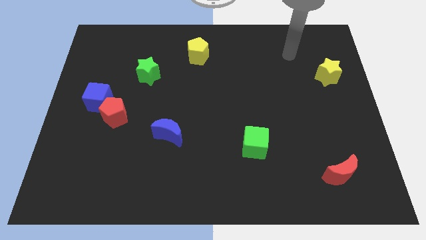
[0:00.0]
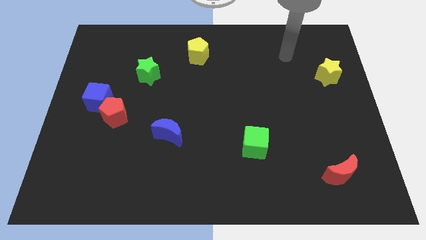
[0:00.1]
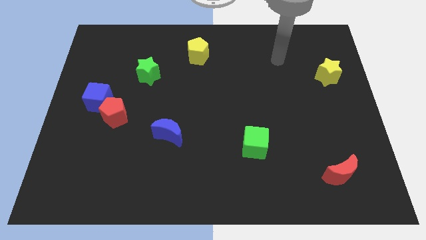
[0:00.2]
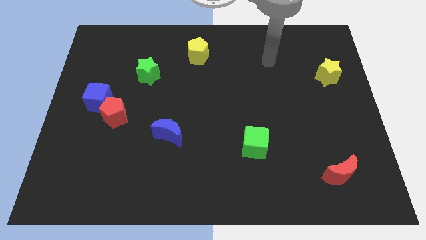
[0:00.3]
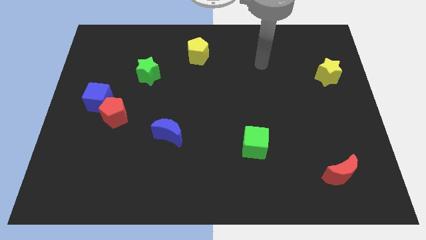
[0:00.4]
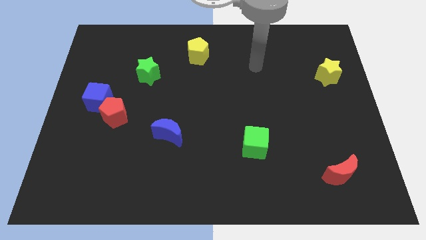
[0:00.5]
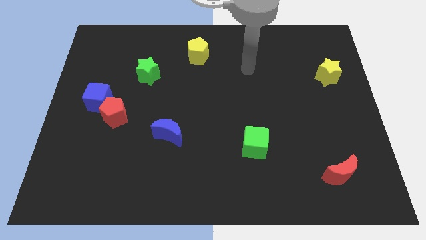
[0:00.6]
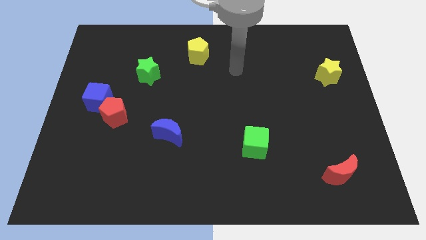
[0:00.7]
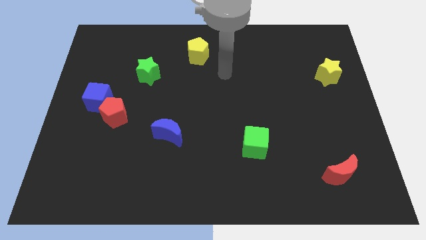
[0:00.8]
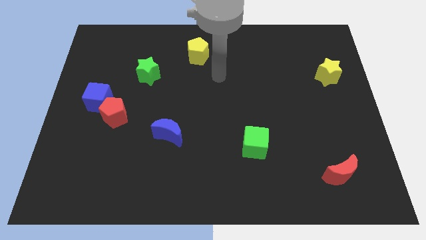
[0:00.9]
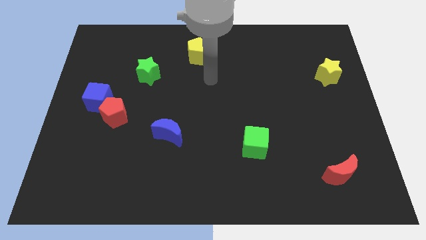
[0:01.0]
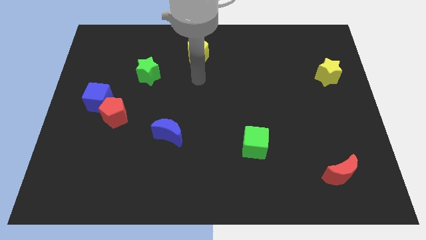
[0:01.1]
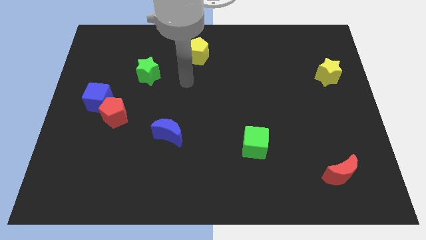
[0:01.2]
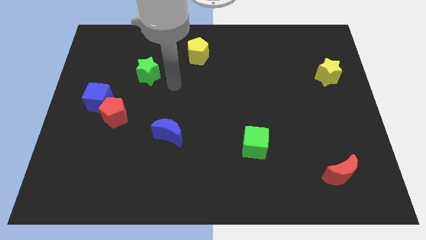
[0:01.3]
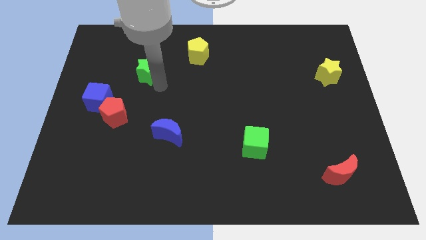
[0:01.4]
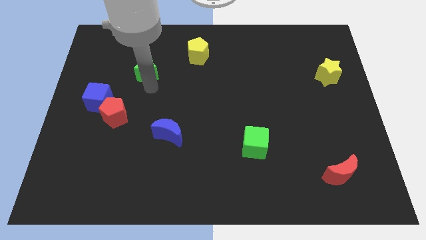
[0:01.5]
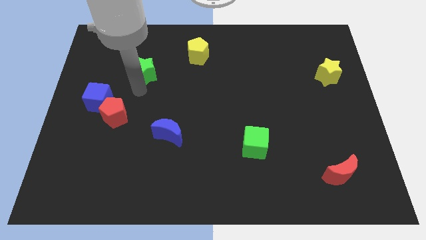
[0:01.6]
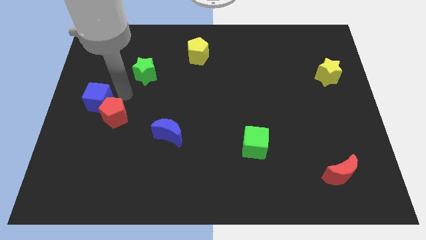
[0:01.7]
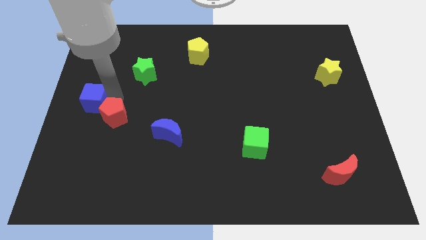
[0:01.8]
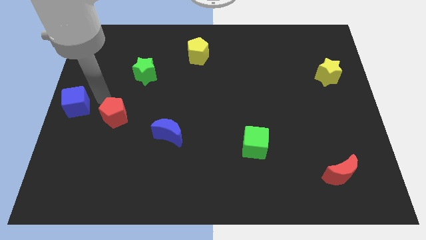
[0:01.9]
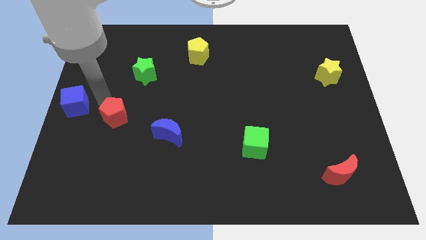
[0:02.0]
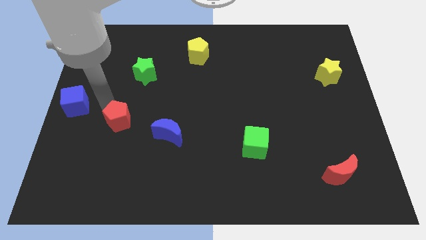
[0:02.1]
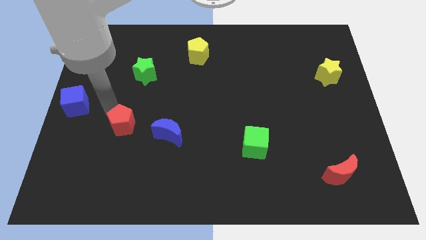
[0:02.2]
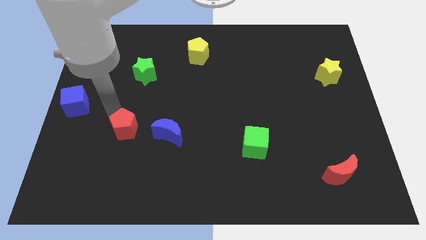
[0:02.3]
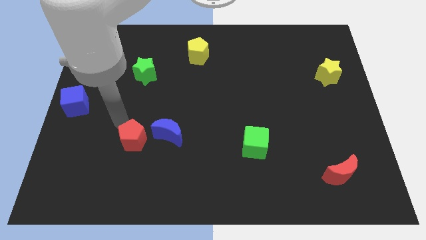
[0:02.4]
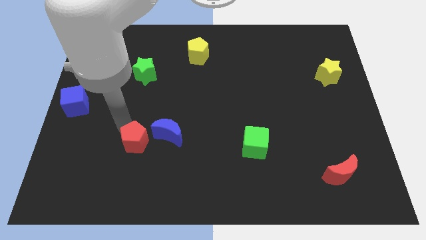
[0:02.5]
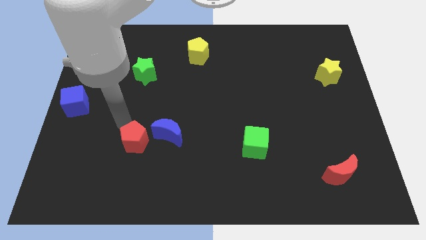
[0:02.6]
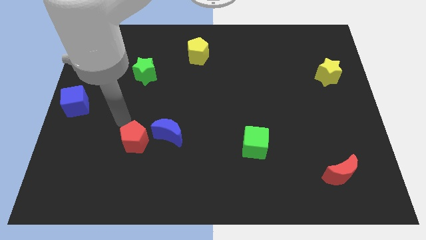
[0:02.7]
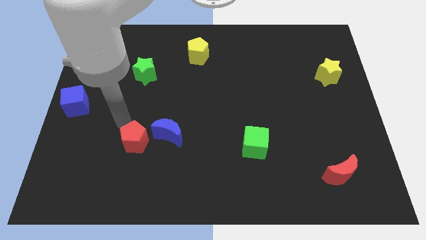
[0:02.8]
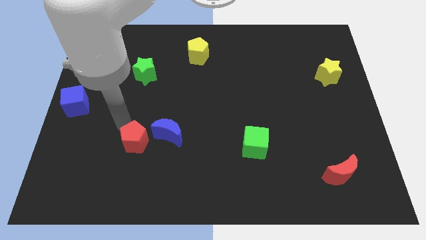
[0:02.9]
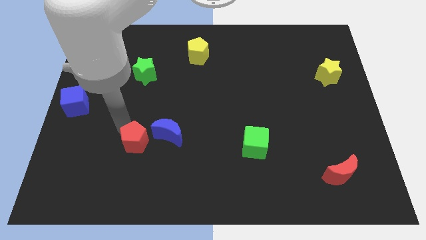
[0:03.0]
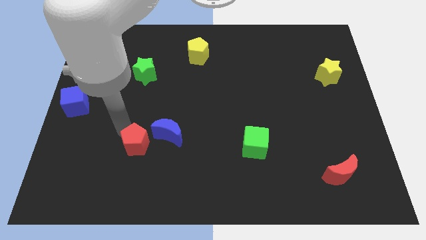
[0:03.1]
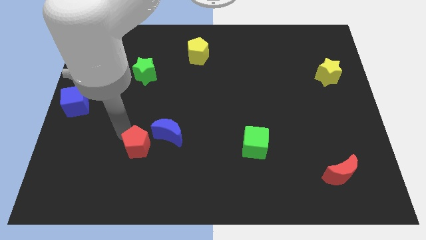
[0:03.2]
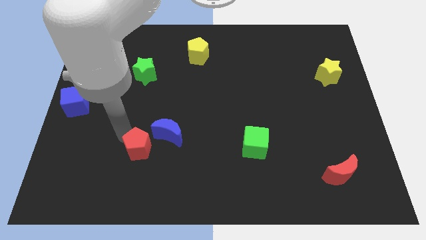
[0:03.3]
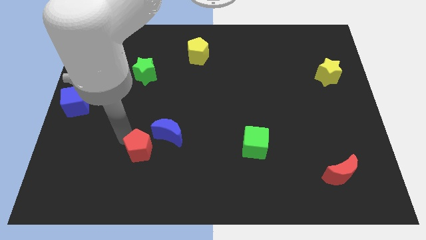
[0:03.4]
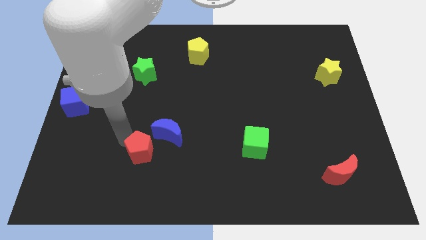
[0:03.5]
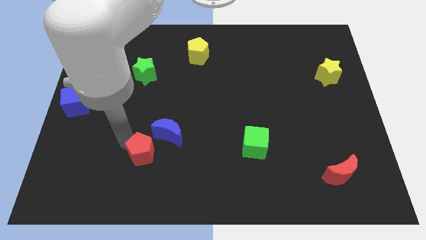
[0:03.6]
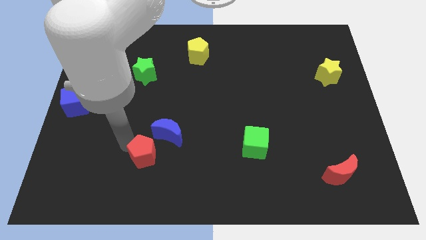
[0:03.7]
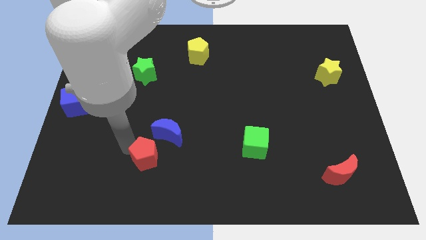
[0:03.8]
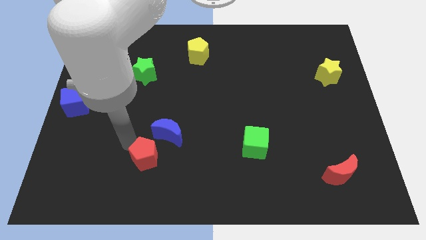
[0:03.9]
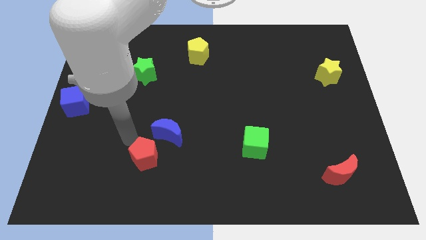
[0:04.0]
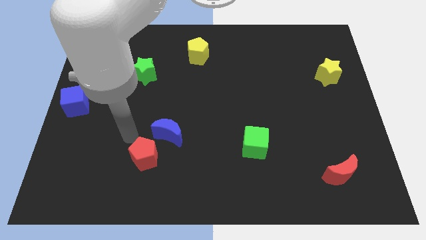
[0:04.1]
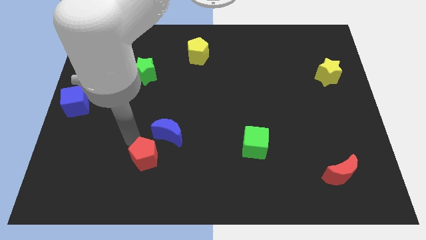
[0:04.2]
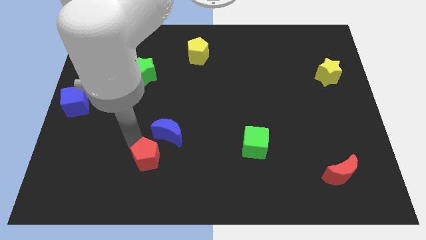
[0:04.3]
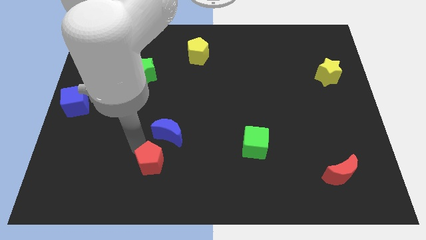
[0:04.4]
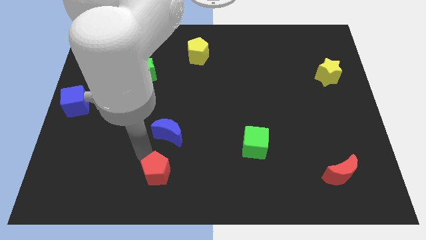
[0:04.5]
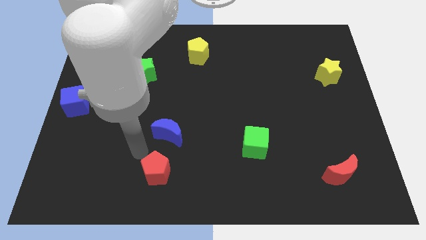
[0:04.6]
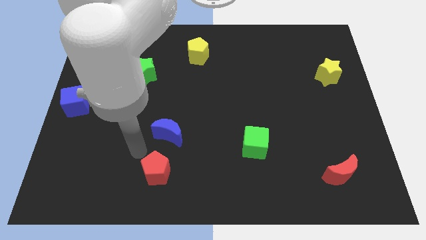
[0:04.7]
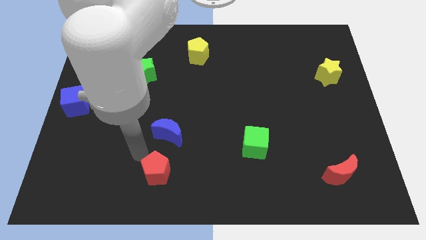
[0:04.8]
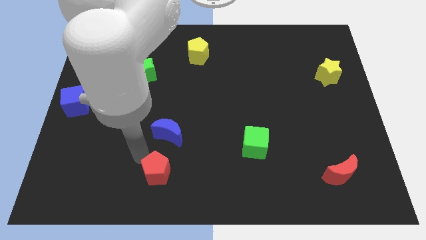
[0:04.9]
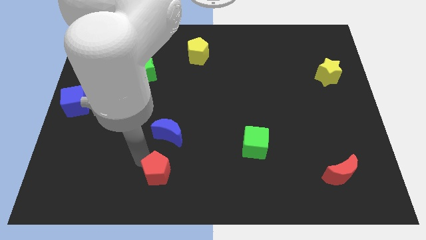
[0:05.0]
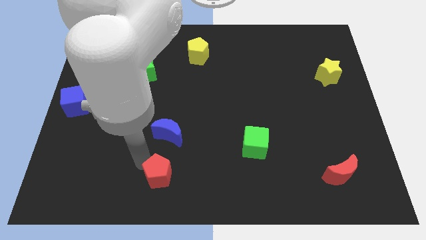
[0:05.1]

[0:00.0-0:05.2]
push the red pentagon to the bottom side

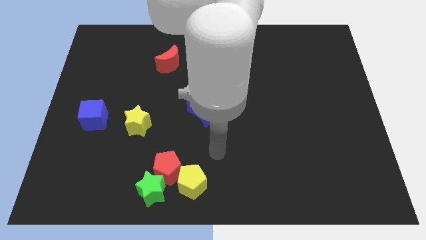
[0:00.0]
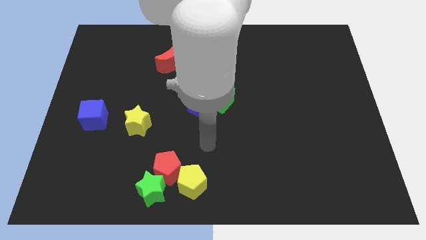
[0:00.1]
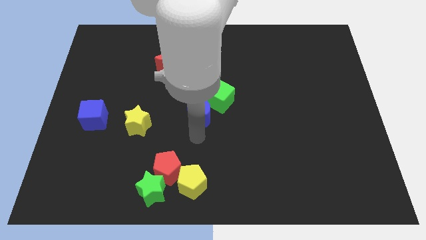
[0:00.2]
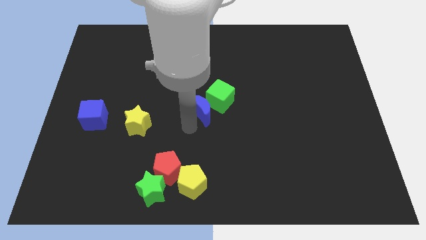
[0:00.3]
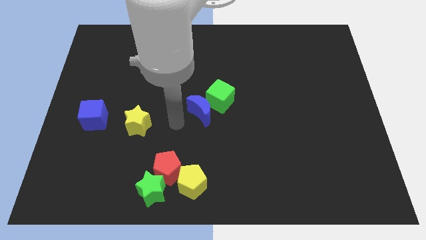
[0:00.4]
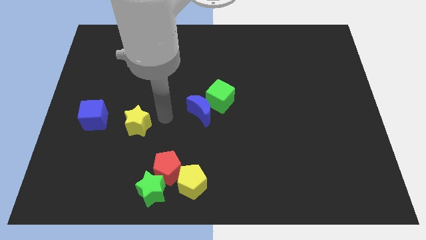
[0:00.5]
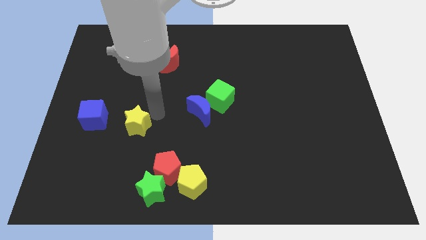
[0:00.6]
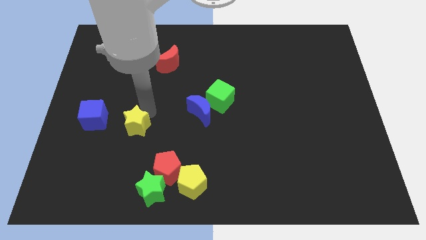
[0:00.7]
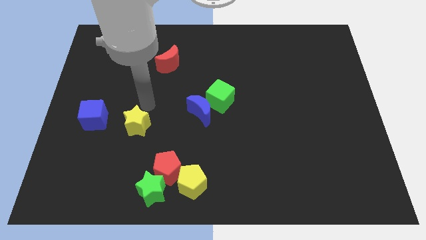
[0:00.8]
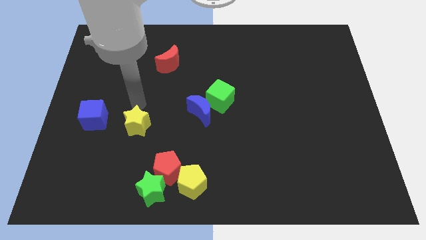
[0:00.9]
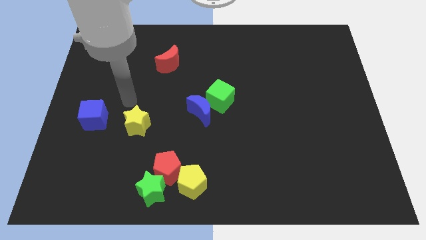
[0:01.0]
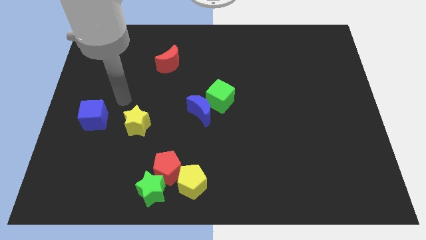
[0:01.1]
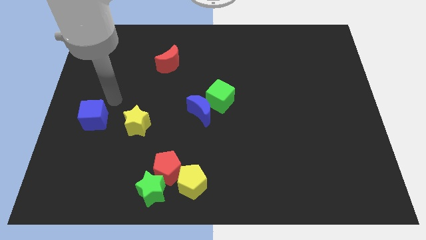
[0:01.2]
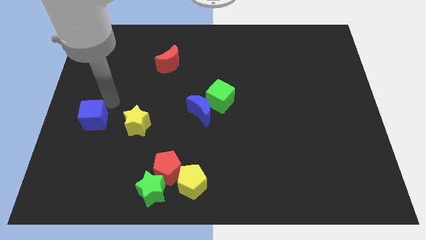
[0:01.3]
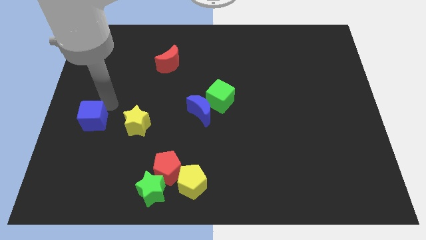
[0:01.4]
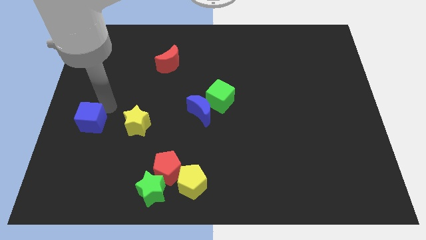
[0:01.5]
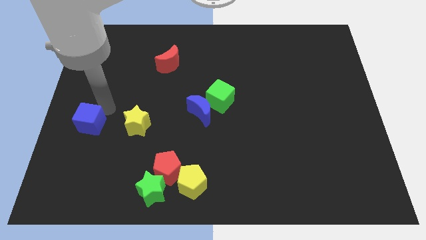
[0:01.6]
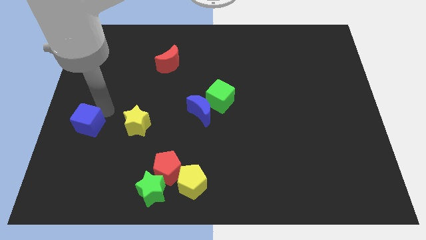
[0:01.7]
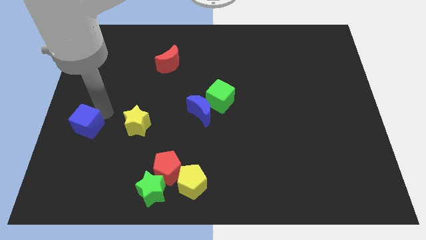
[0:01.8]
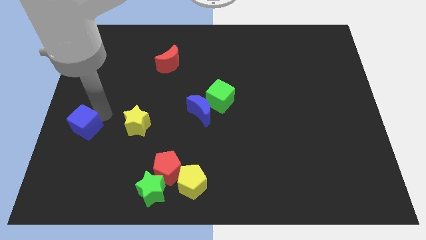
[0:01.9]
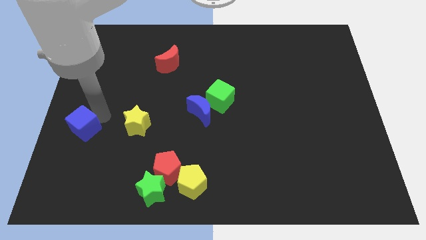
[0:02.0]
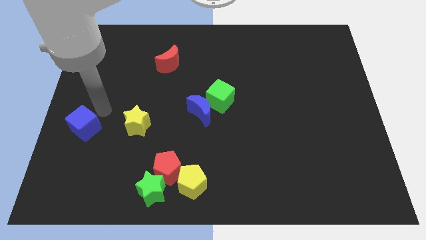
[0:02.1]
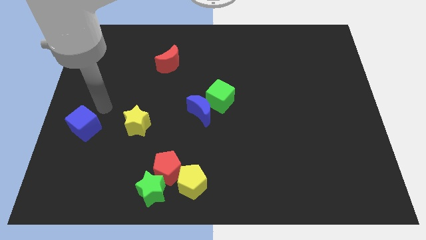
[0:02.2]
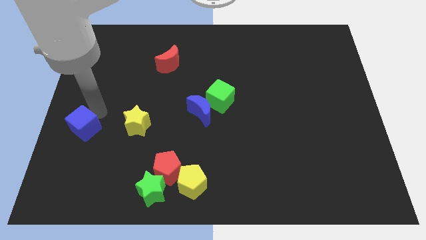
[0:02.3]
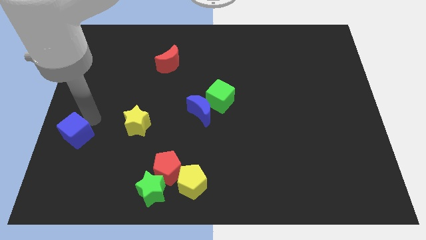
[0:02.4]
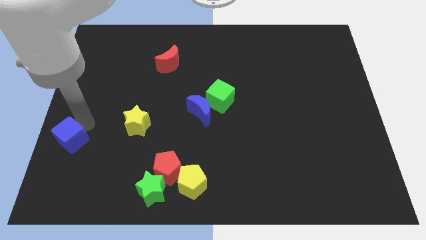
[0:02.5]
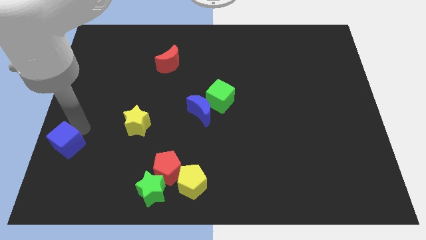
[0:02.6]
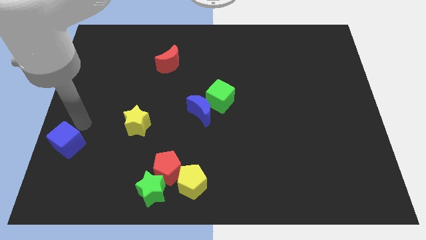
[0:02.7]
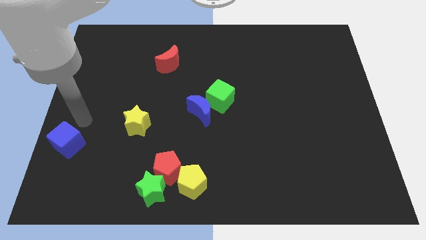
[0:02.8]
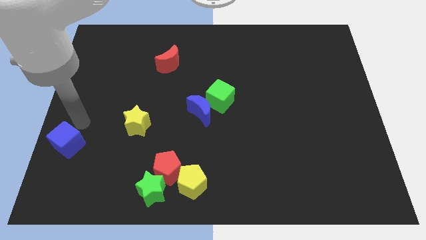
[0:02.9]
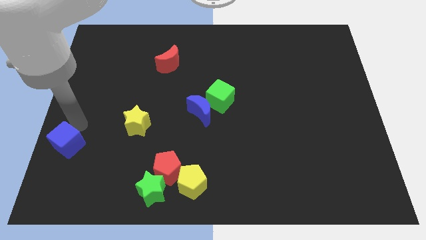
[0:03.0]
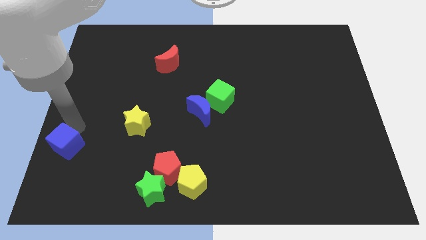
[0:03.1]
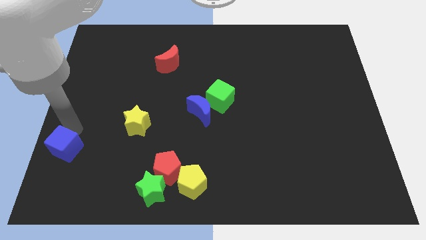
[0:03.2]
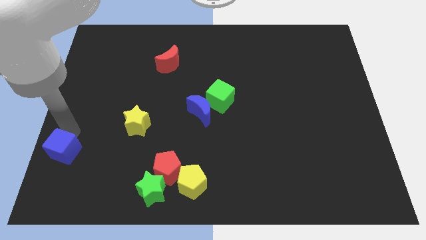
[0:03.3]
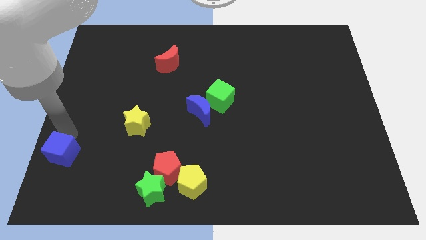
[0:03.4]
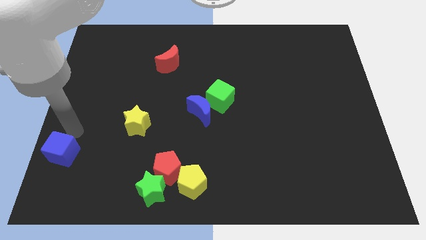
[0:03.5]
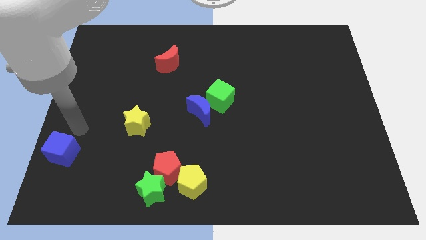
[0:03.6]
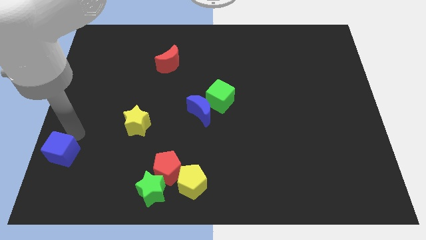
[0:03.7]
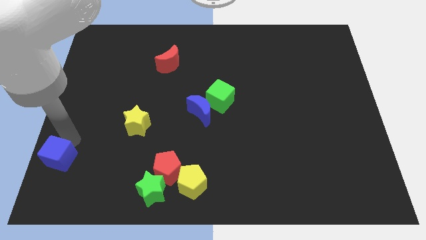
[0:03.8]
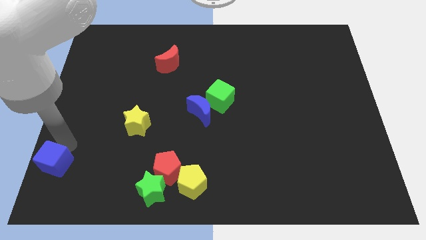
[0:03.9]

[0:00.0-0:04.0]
slide the blue cube to the bottom left
